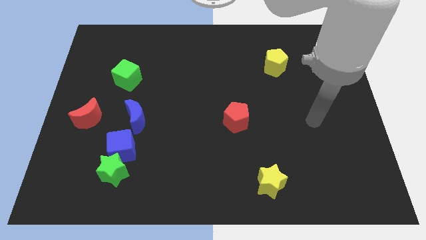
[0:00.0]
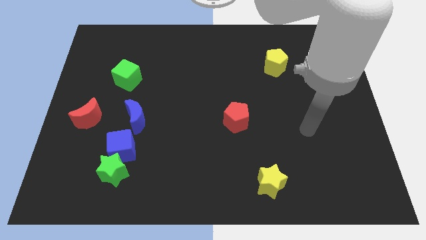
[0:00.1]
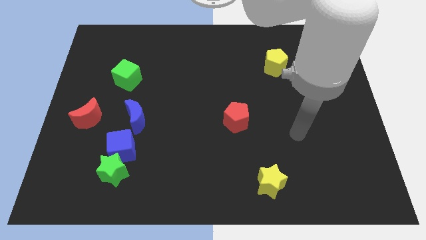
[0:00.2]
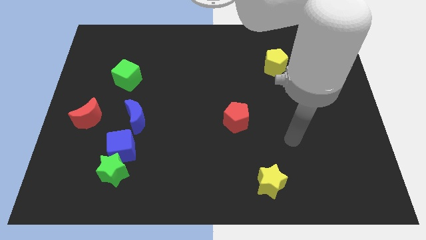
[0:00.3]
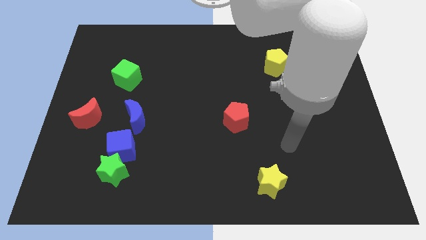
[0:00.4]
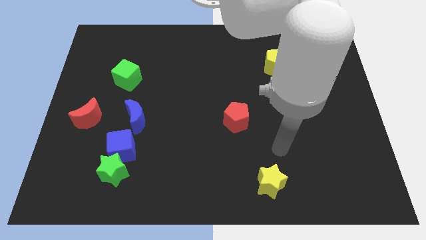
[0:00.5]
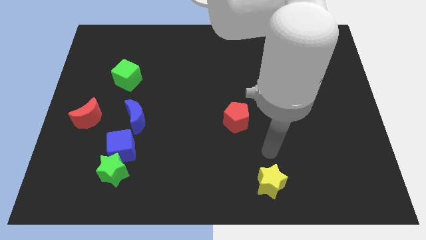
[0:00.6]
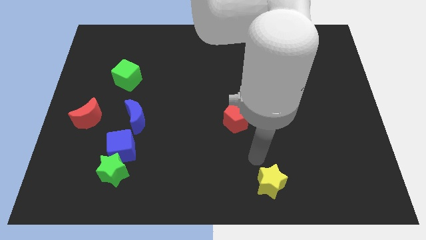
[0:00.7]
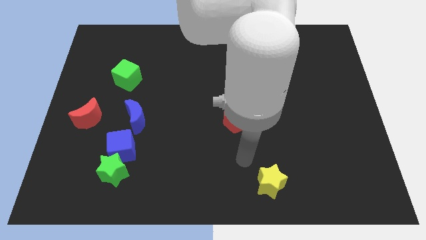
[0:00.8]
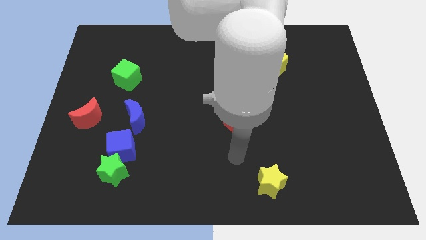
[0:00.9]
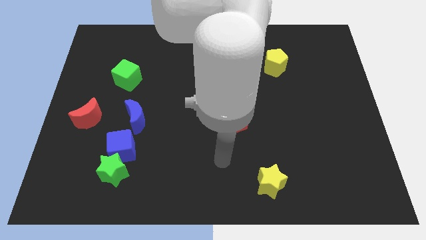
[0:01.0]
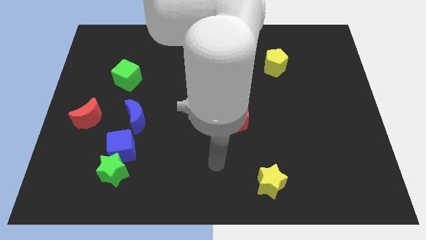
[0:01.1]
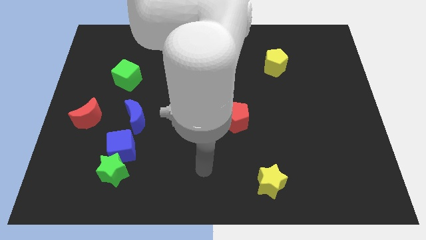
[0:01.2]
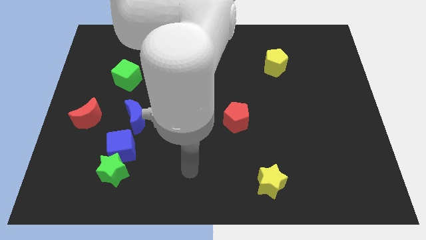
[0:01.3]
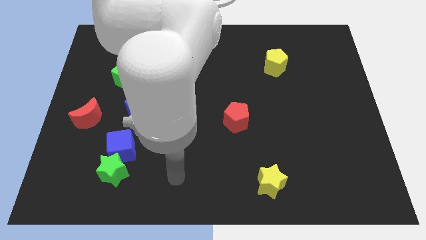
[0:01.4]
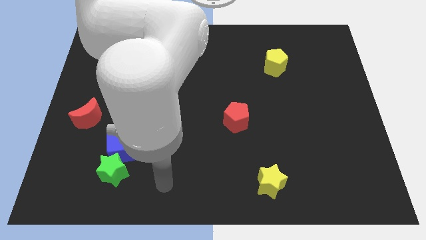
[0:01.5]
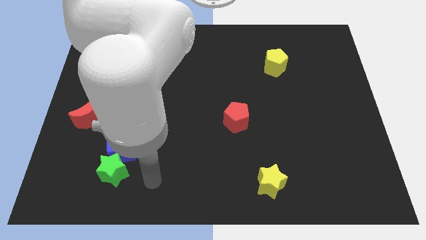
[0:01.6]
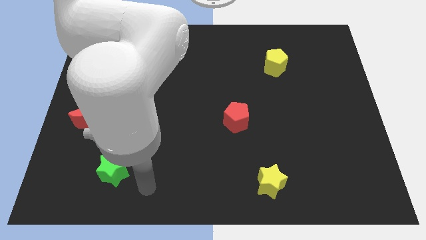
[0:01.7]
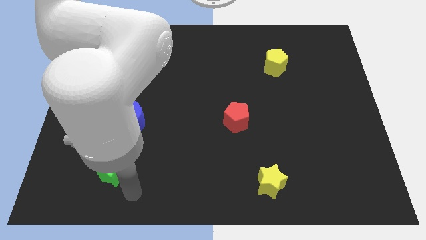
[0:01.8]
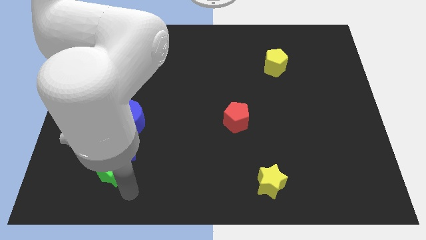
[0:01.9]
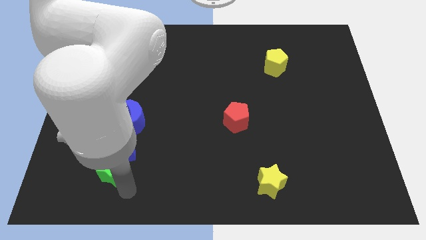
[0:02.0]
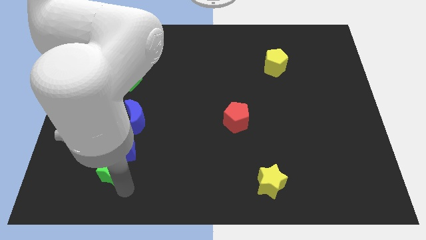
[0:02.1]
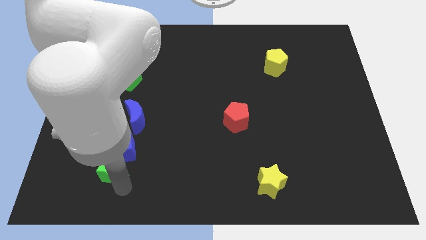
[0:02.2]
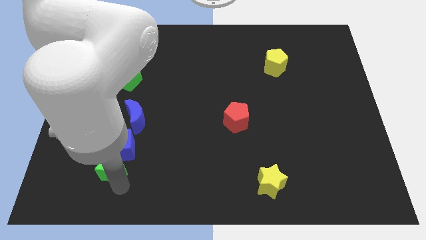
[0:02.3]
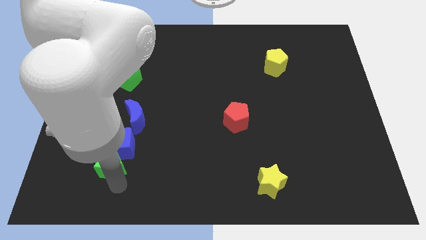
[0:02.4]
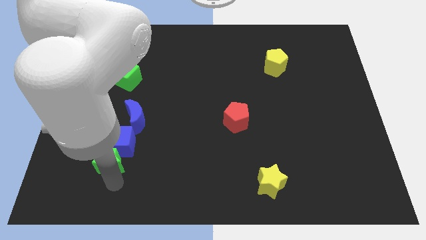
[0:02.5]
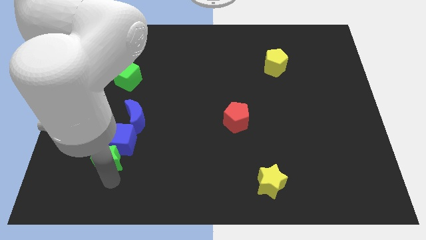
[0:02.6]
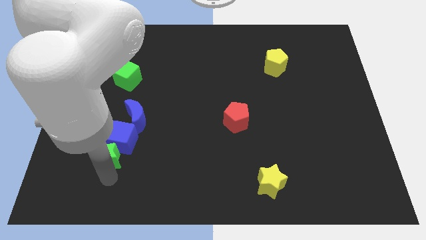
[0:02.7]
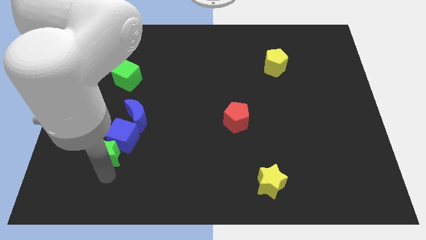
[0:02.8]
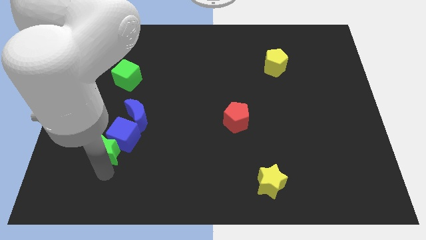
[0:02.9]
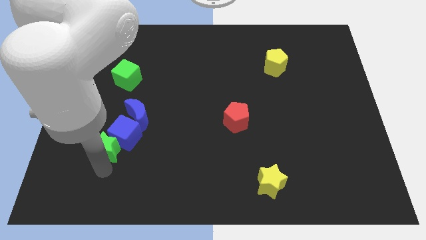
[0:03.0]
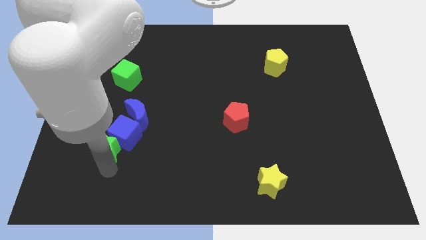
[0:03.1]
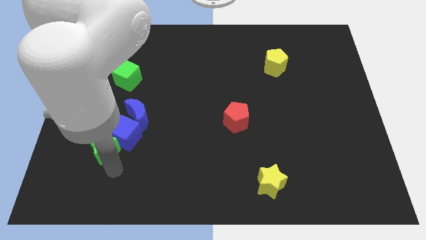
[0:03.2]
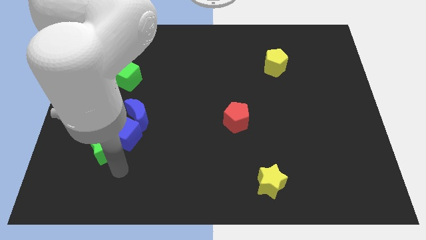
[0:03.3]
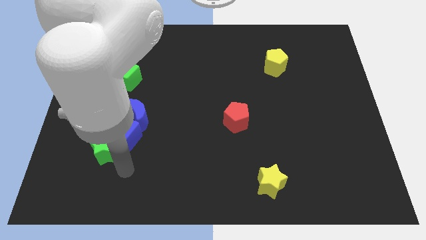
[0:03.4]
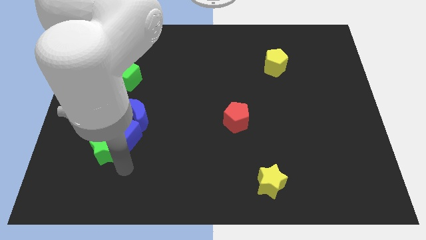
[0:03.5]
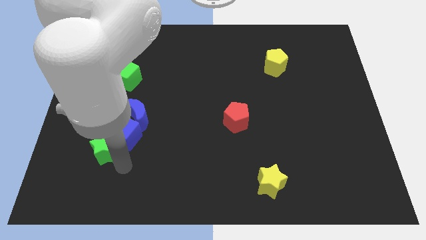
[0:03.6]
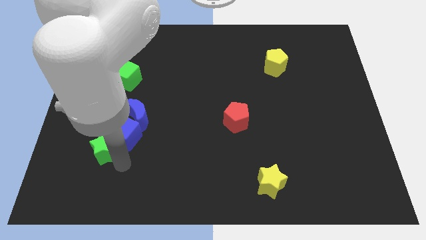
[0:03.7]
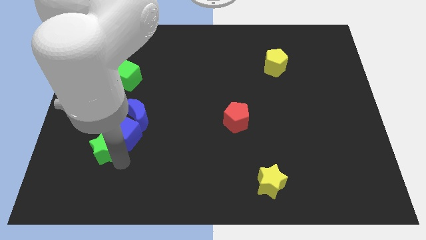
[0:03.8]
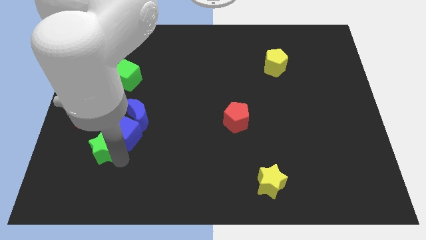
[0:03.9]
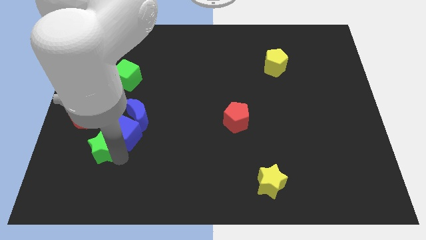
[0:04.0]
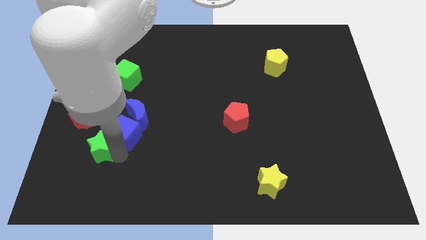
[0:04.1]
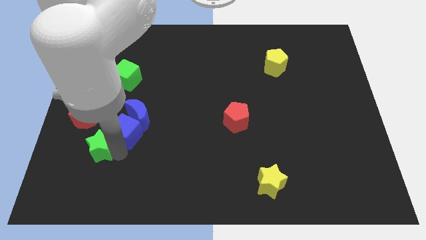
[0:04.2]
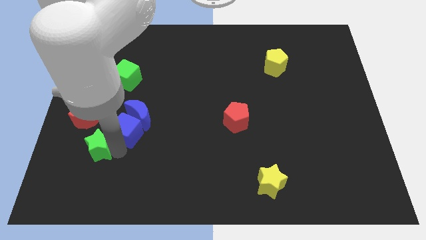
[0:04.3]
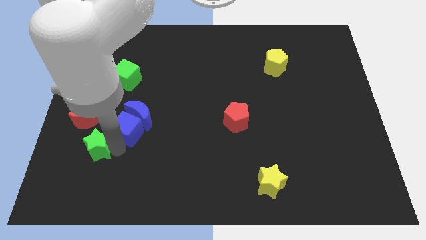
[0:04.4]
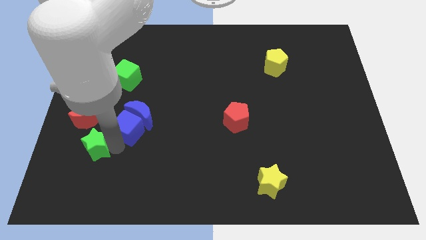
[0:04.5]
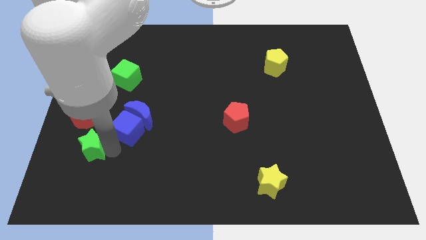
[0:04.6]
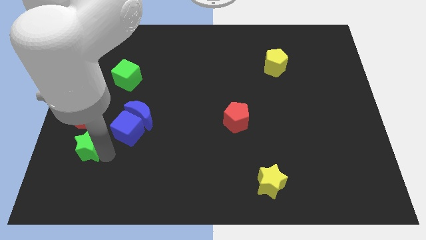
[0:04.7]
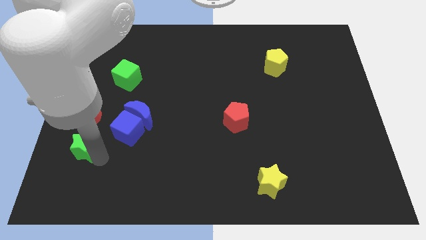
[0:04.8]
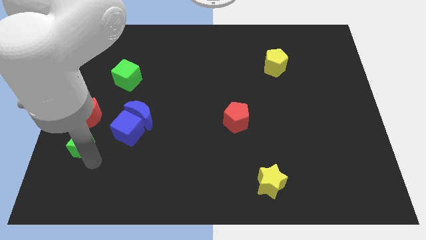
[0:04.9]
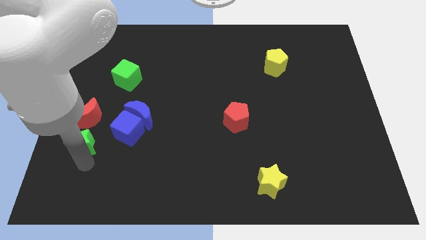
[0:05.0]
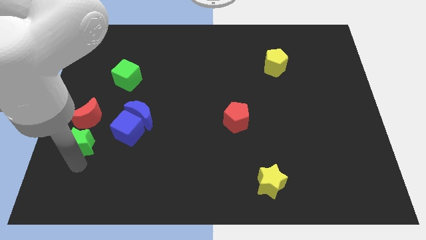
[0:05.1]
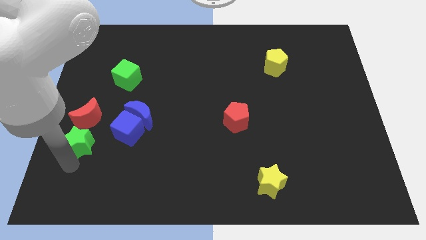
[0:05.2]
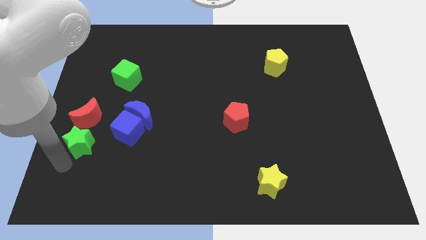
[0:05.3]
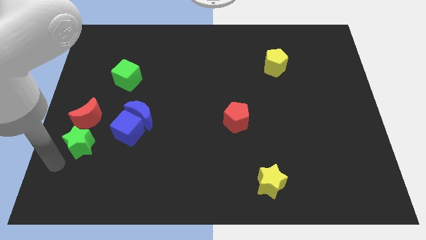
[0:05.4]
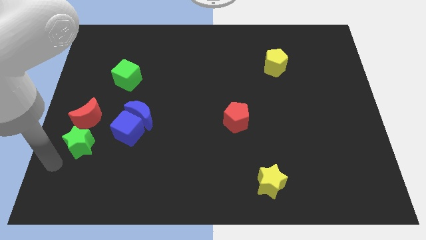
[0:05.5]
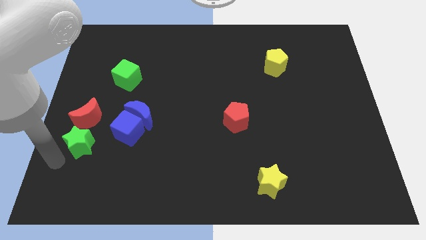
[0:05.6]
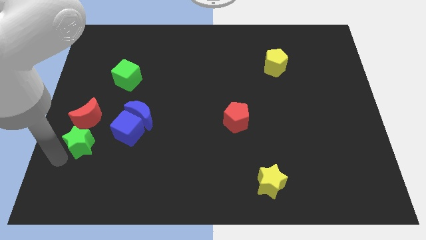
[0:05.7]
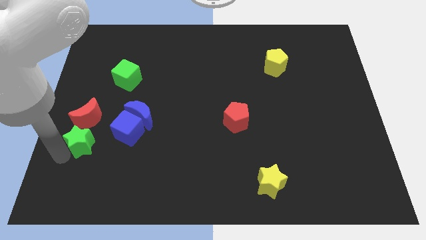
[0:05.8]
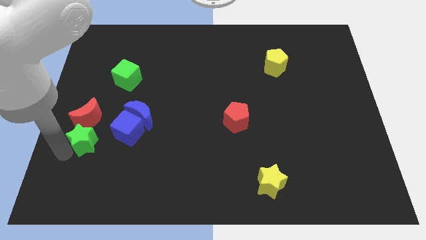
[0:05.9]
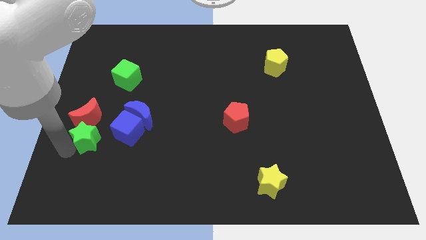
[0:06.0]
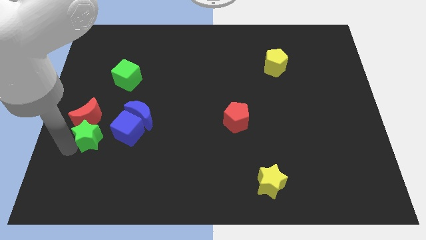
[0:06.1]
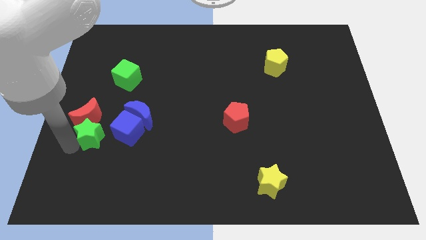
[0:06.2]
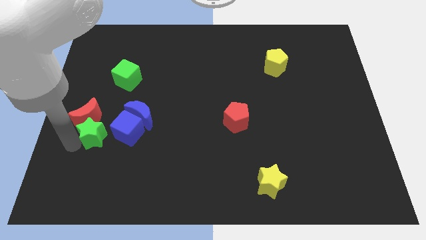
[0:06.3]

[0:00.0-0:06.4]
slide the green star up a little bit

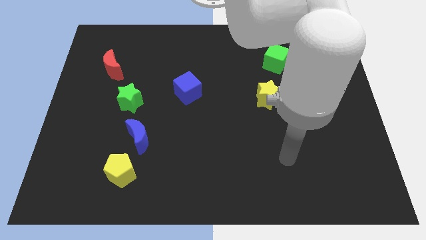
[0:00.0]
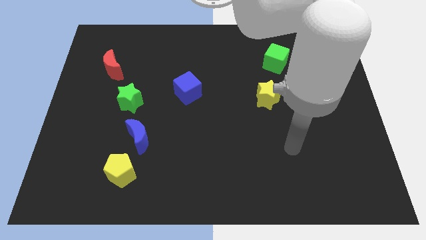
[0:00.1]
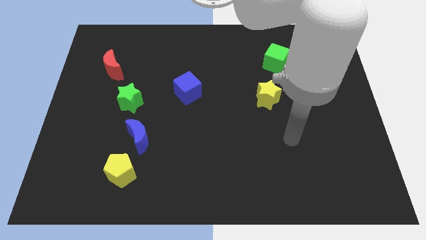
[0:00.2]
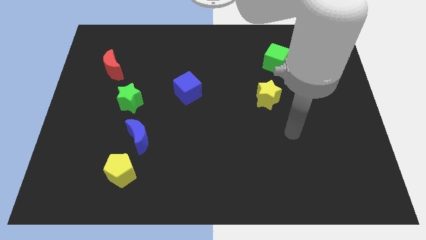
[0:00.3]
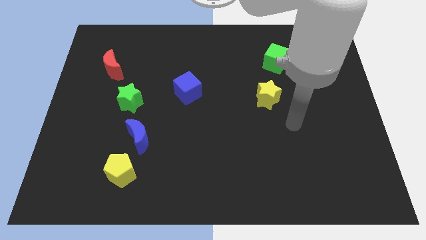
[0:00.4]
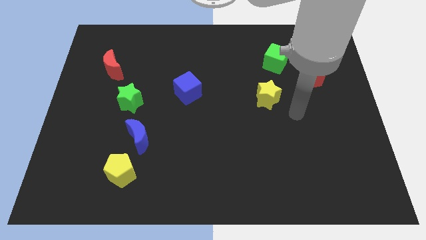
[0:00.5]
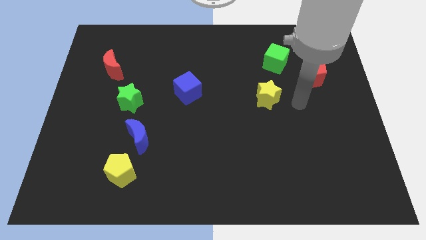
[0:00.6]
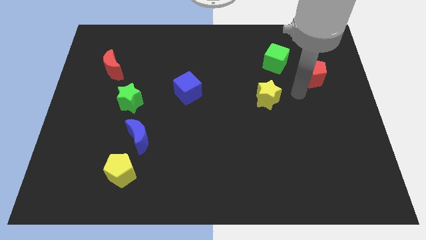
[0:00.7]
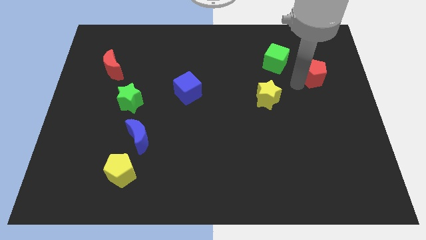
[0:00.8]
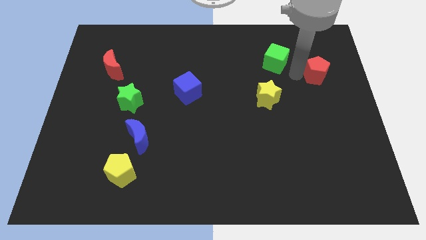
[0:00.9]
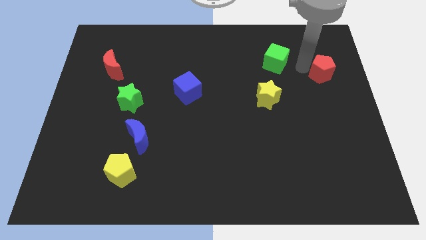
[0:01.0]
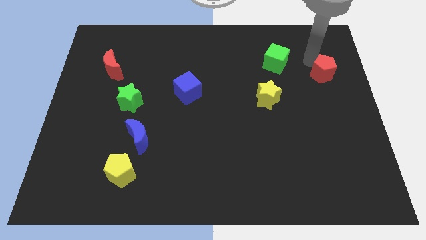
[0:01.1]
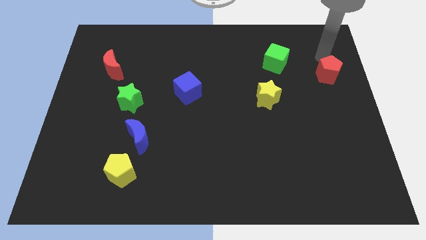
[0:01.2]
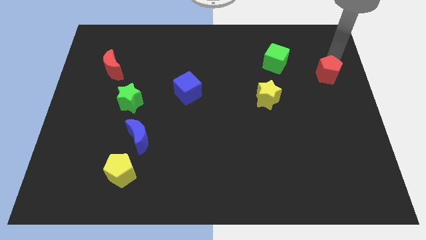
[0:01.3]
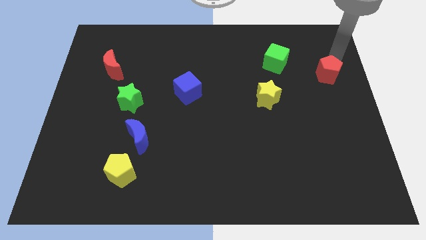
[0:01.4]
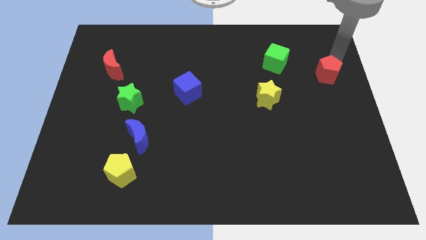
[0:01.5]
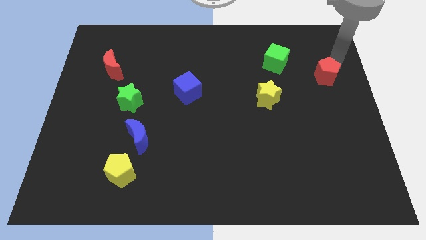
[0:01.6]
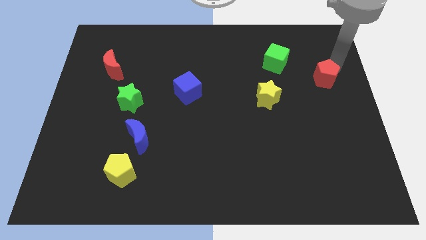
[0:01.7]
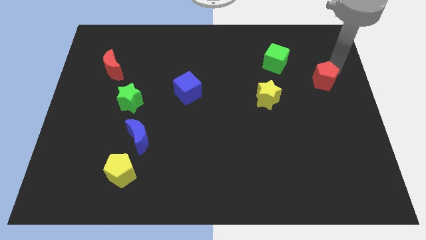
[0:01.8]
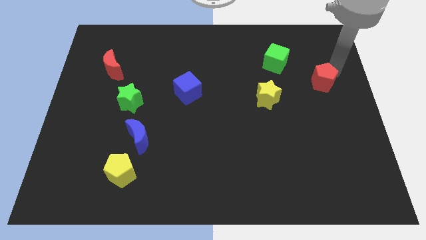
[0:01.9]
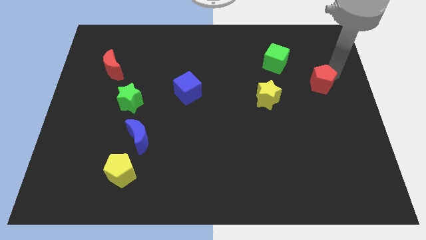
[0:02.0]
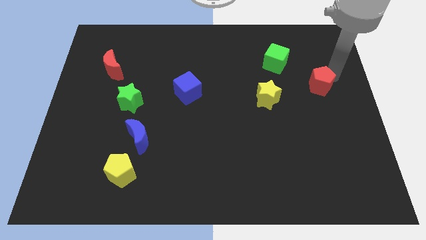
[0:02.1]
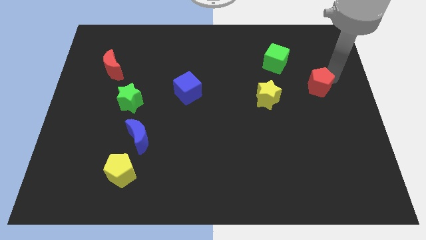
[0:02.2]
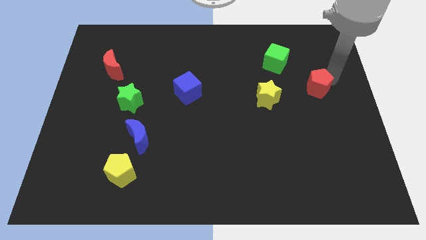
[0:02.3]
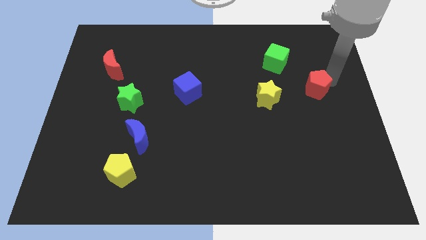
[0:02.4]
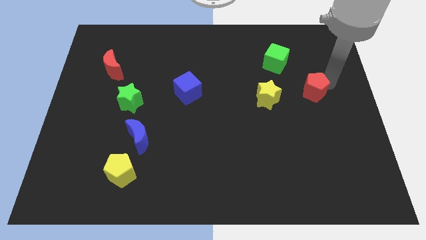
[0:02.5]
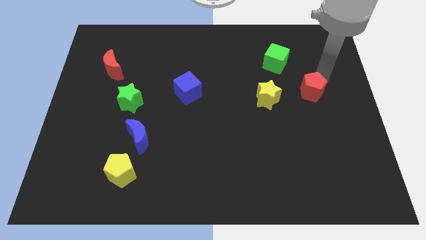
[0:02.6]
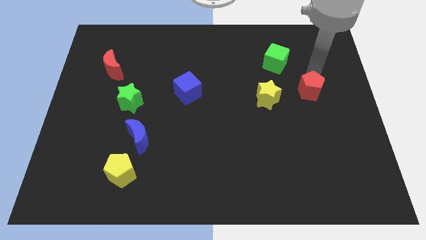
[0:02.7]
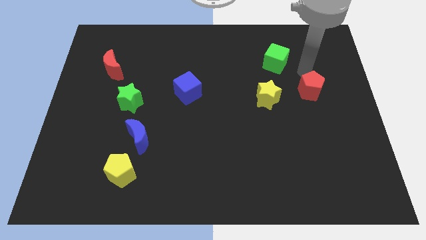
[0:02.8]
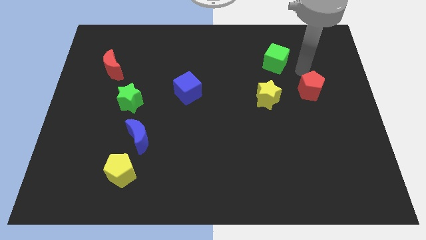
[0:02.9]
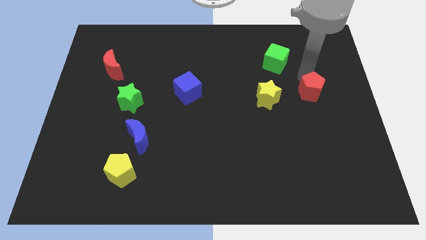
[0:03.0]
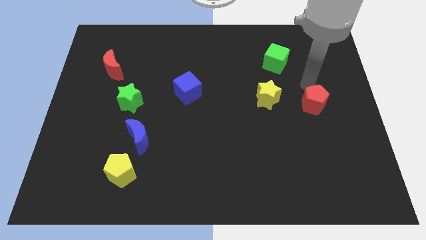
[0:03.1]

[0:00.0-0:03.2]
move the red pentagon slightly downwards
